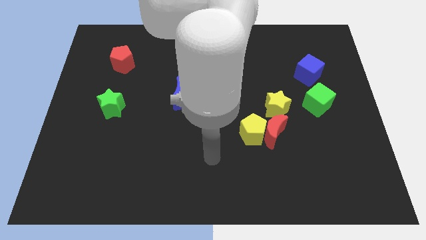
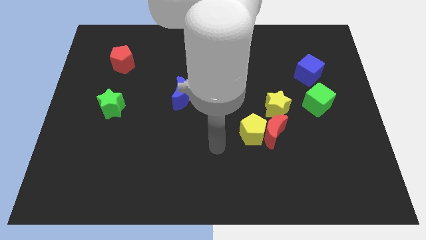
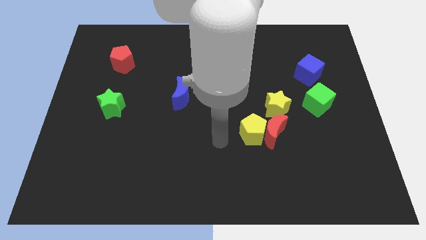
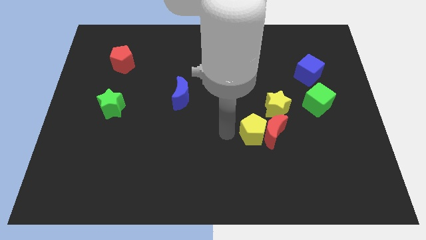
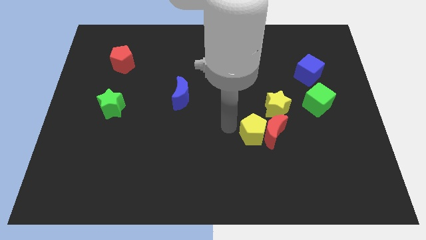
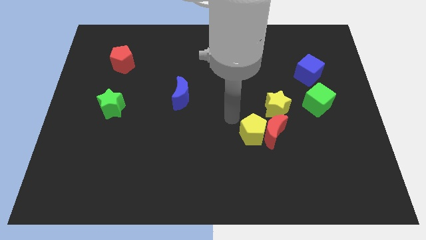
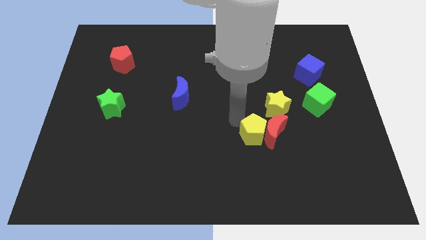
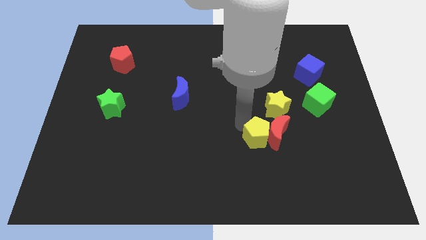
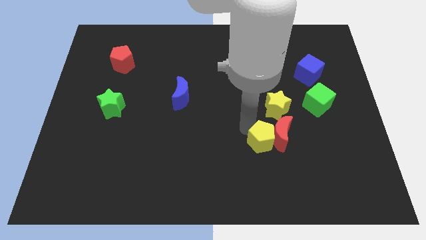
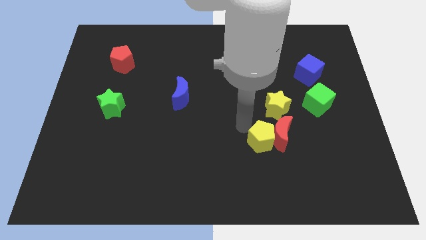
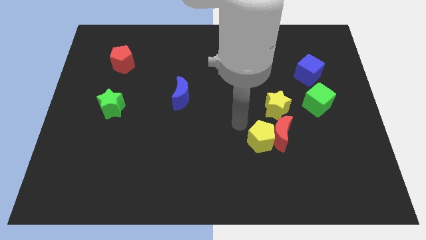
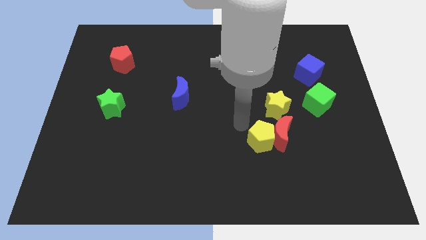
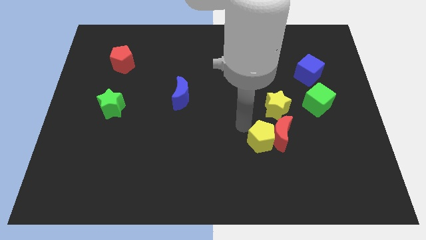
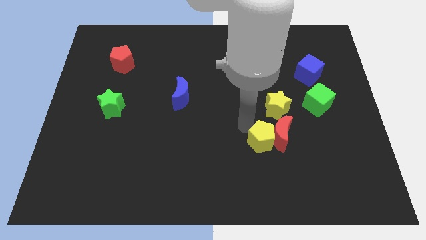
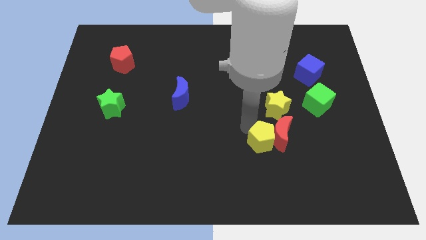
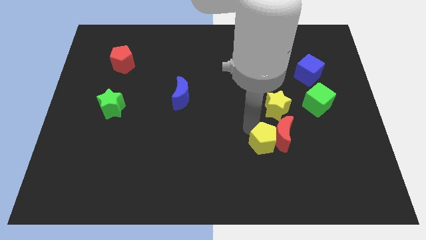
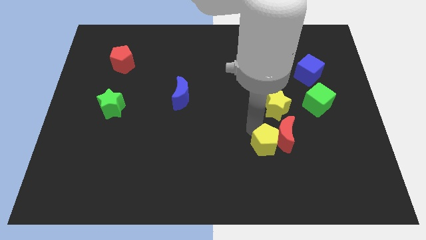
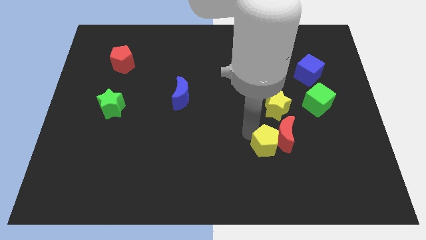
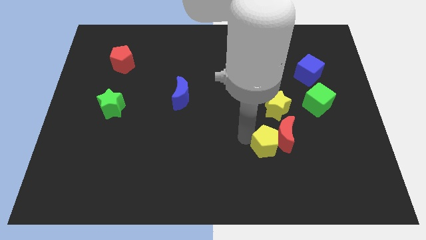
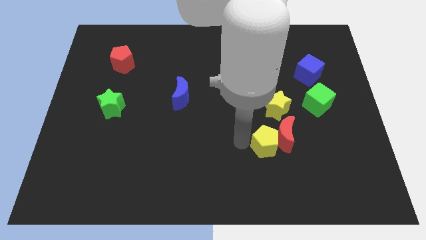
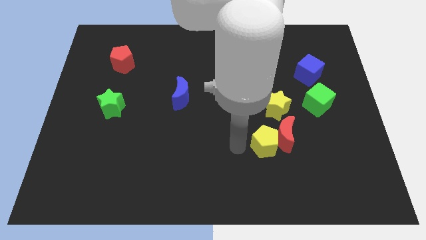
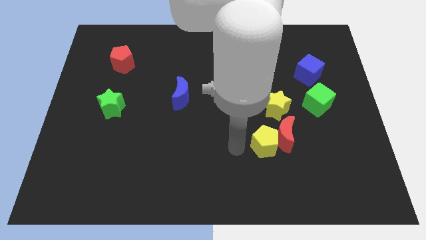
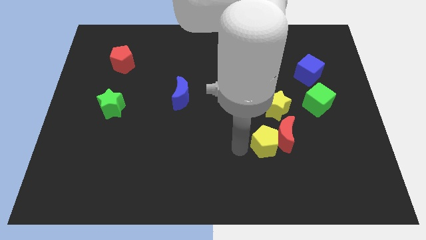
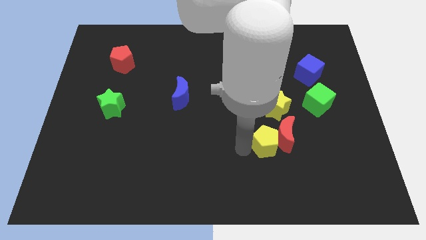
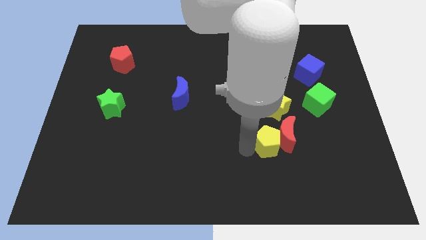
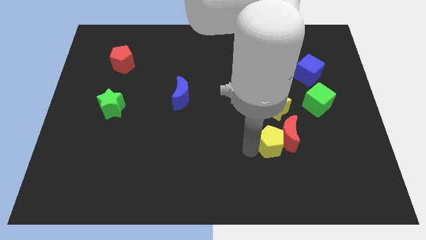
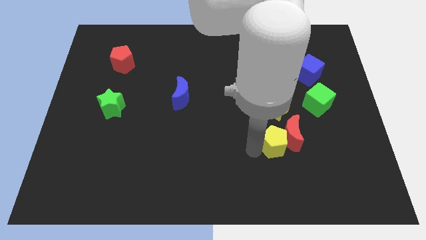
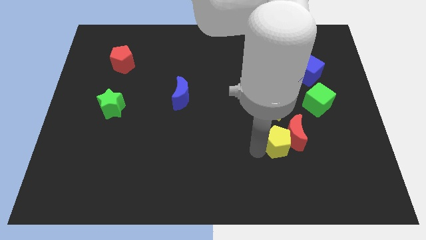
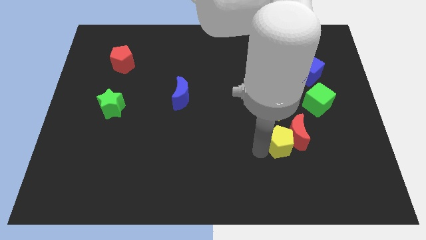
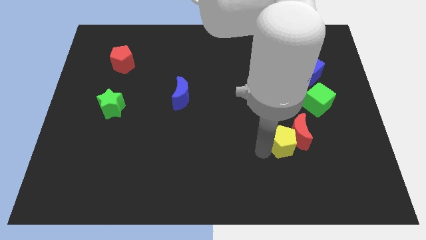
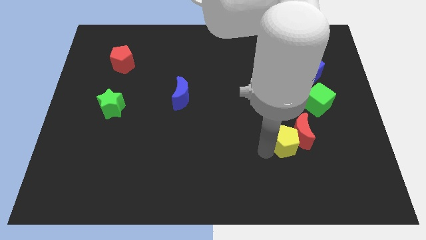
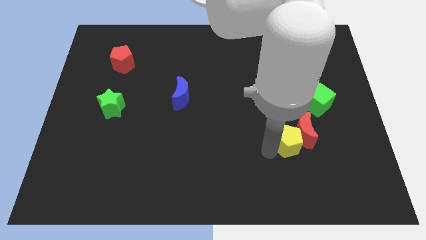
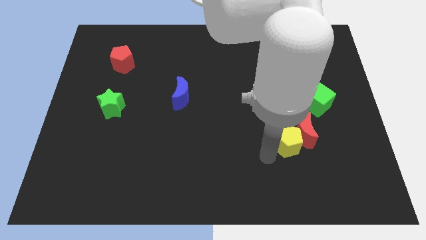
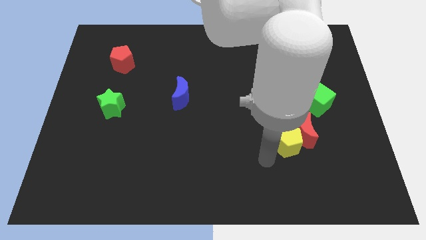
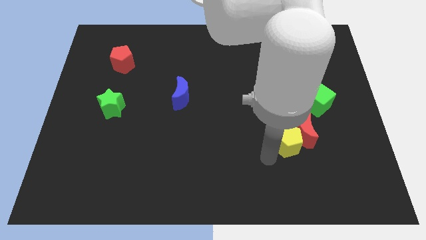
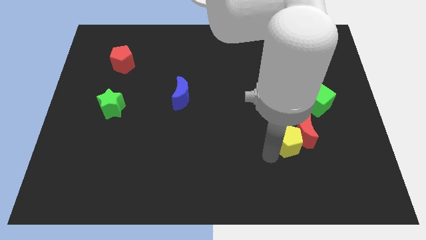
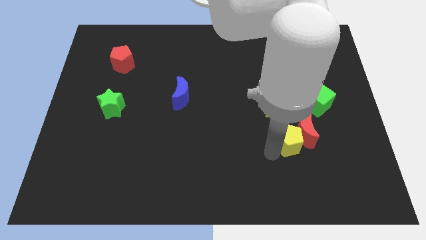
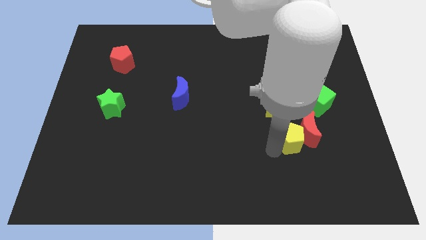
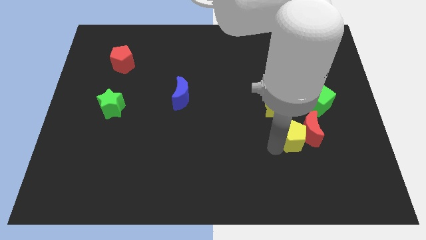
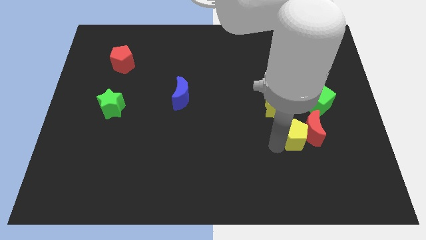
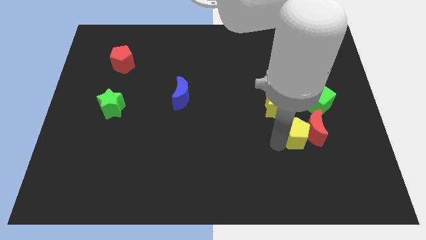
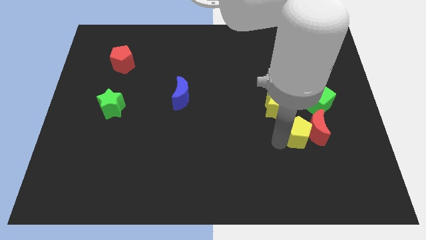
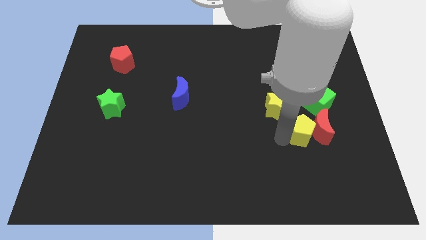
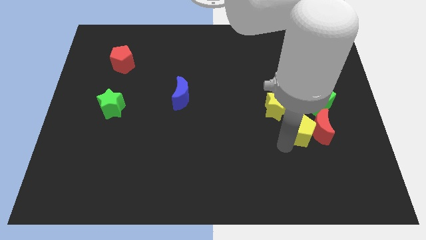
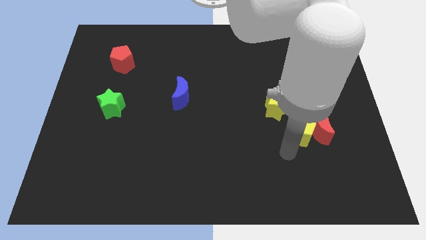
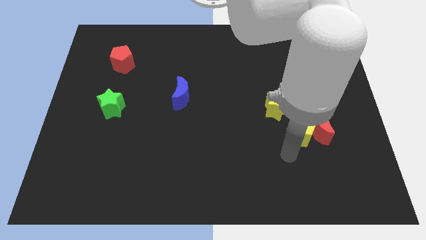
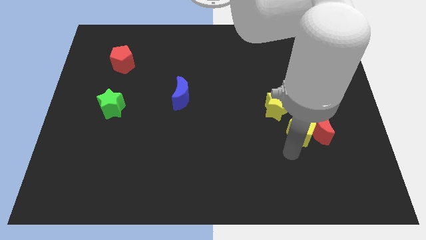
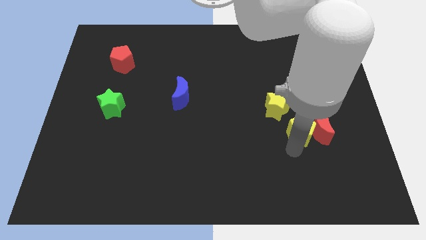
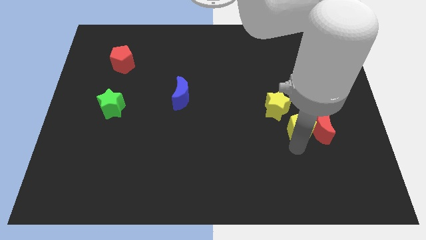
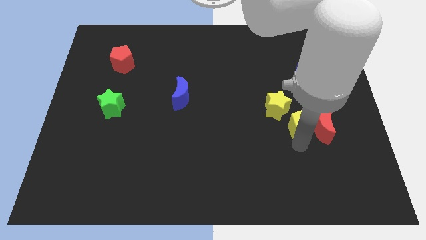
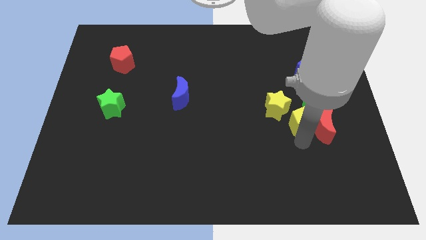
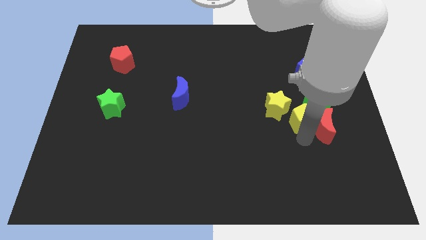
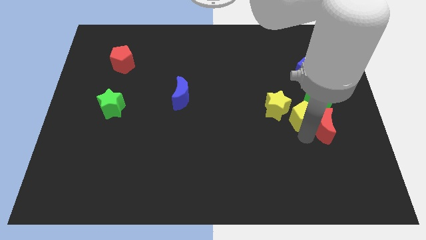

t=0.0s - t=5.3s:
push the yellow pentagon close to the green cube
